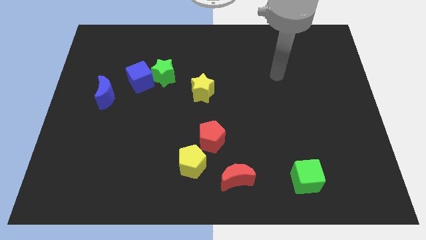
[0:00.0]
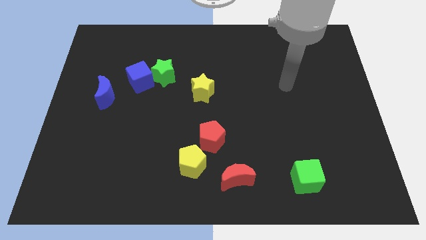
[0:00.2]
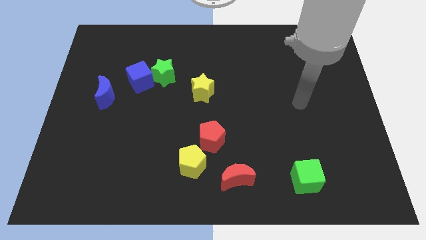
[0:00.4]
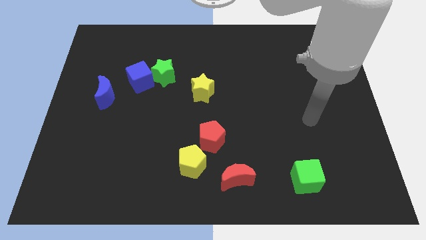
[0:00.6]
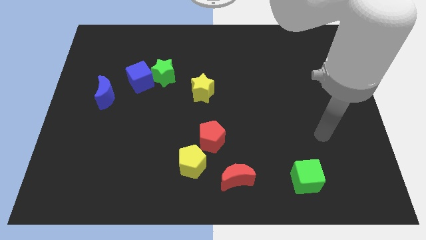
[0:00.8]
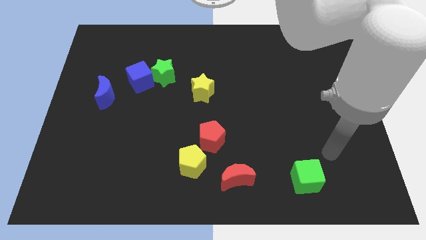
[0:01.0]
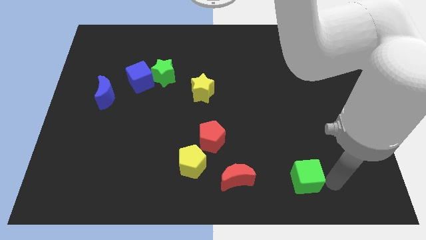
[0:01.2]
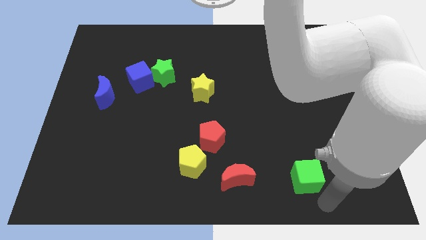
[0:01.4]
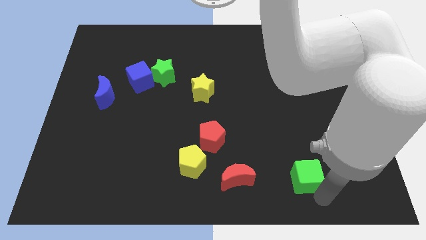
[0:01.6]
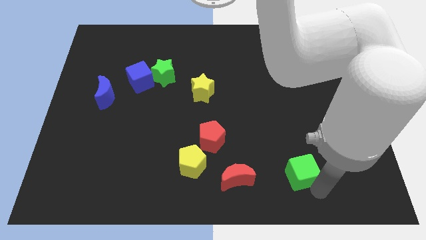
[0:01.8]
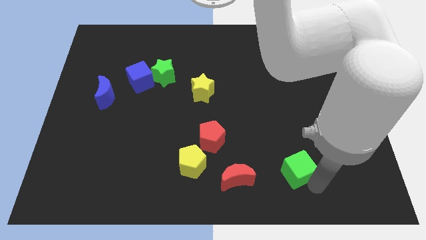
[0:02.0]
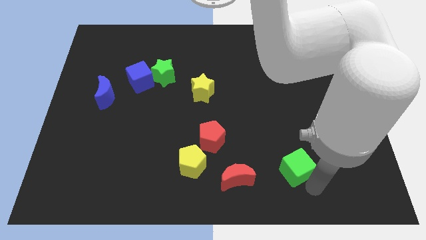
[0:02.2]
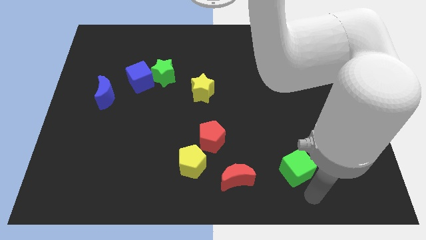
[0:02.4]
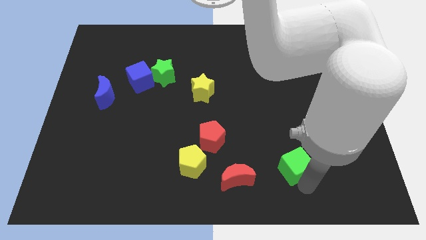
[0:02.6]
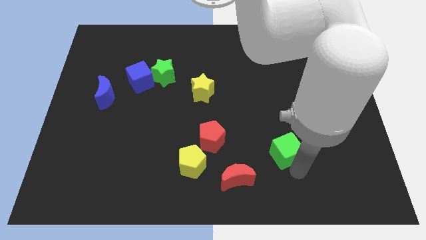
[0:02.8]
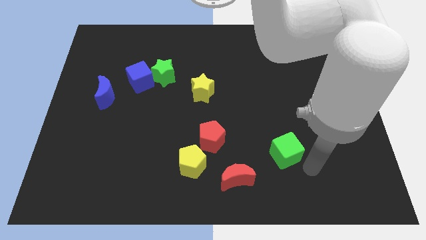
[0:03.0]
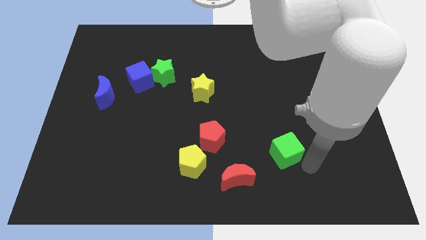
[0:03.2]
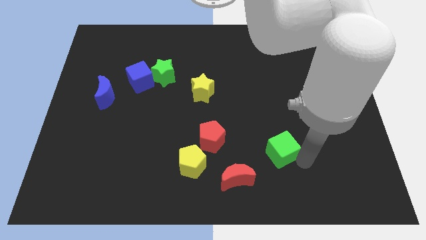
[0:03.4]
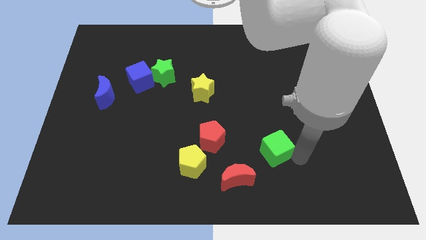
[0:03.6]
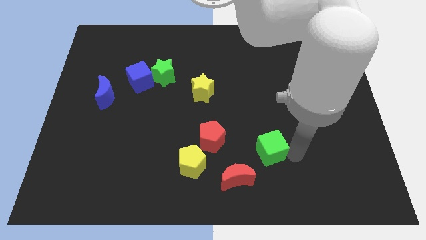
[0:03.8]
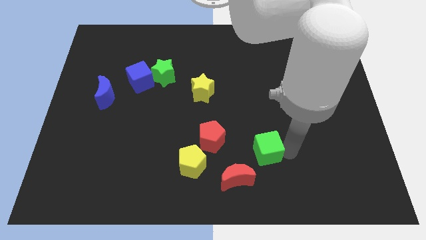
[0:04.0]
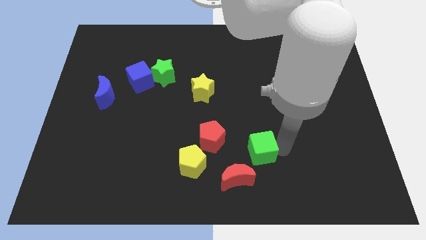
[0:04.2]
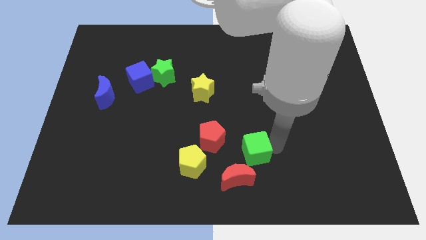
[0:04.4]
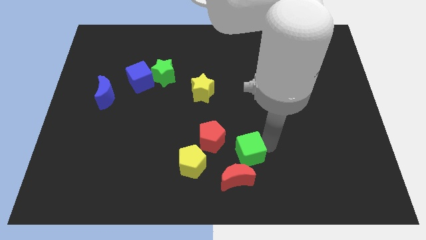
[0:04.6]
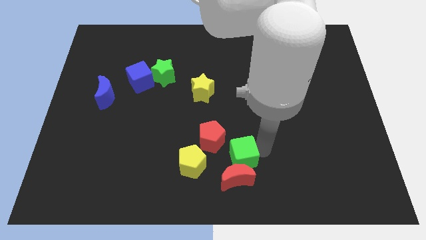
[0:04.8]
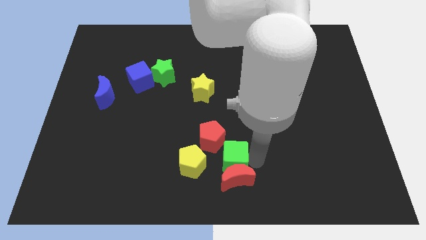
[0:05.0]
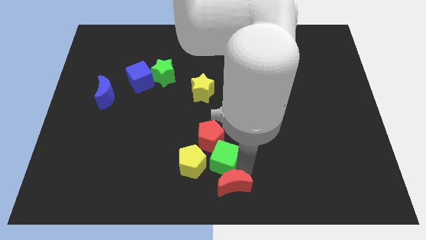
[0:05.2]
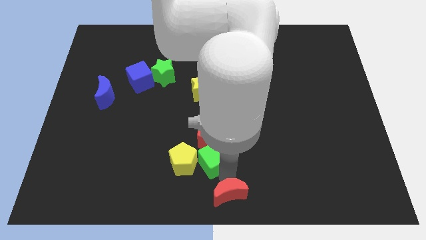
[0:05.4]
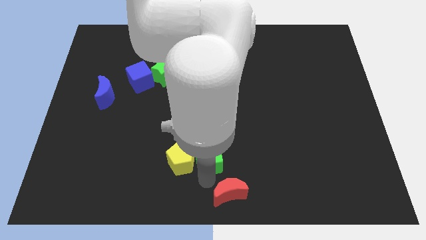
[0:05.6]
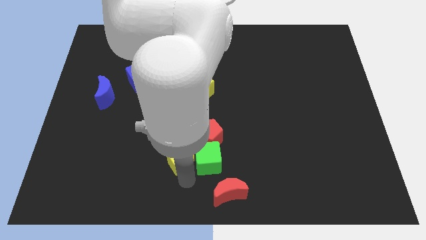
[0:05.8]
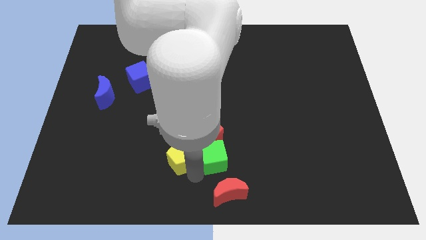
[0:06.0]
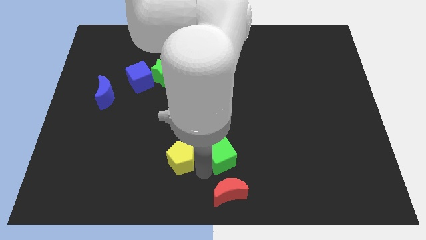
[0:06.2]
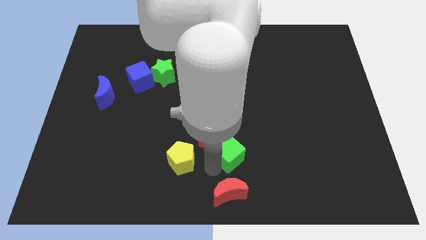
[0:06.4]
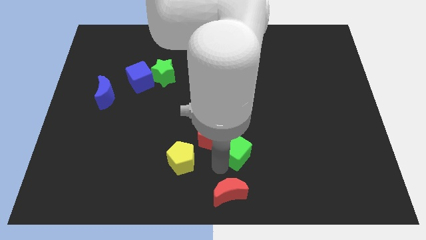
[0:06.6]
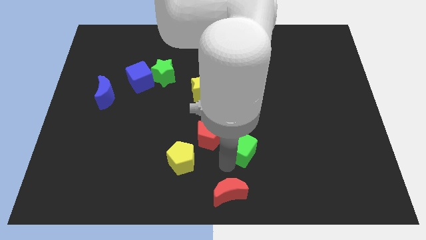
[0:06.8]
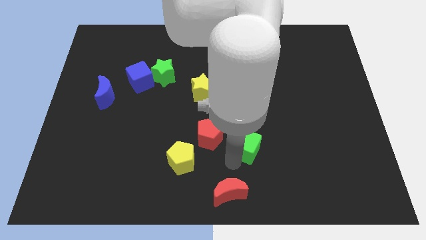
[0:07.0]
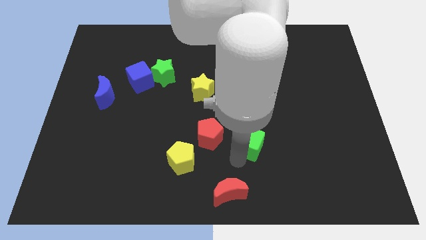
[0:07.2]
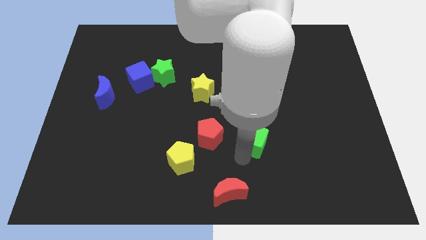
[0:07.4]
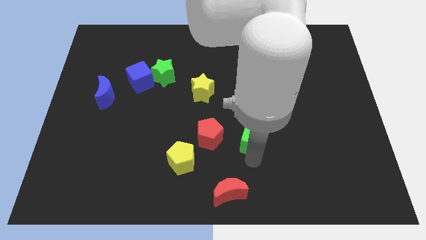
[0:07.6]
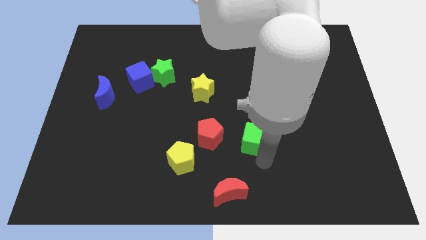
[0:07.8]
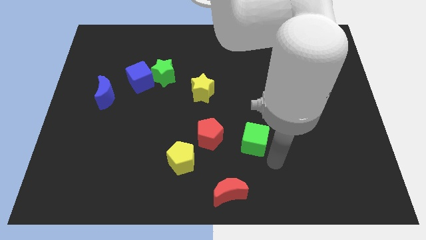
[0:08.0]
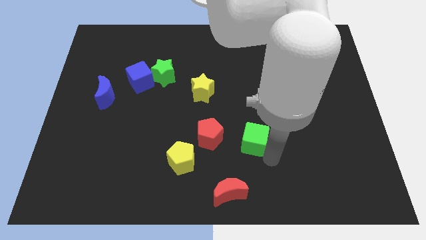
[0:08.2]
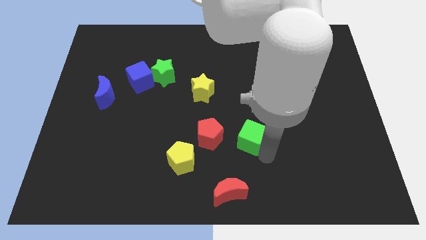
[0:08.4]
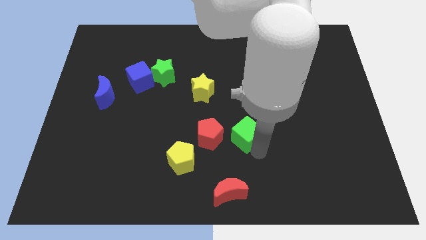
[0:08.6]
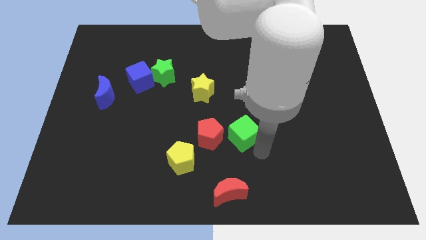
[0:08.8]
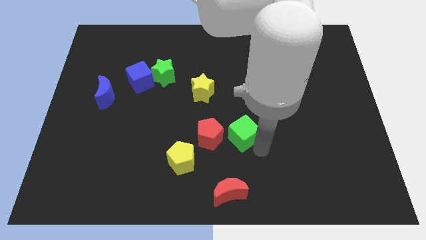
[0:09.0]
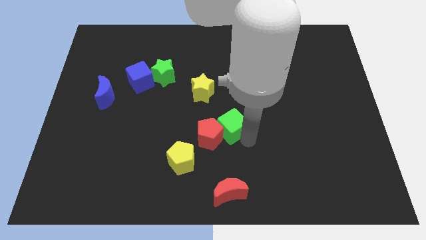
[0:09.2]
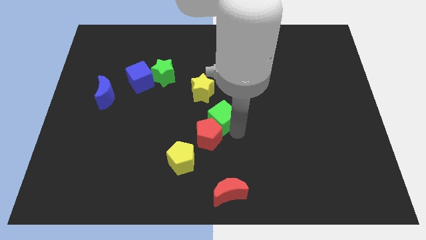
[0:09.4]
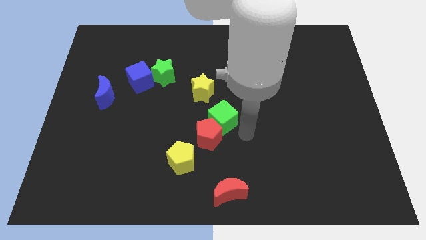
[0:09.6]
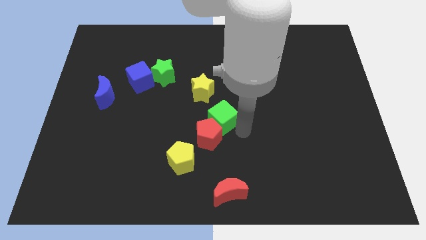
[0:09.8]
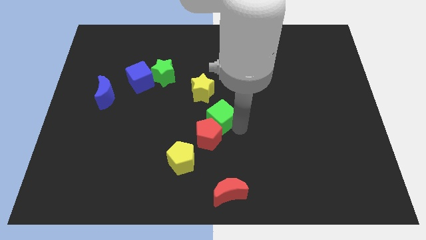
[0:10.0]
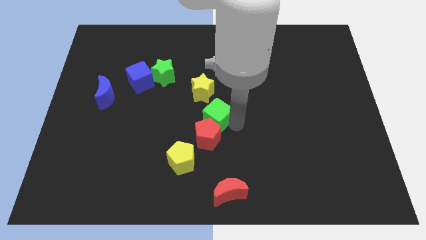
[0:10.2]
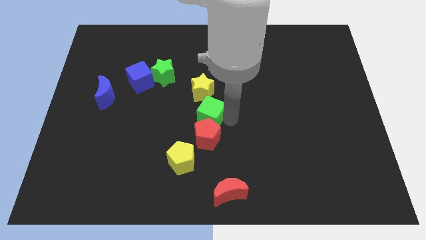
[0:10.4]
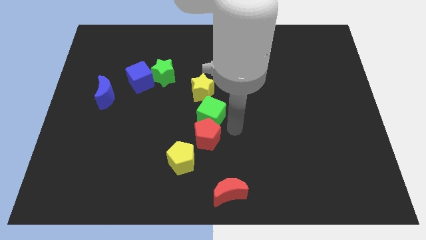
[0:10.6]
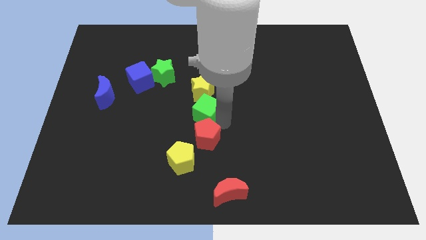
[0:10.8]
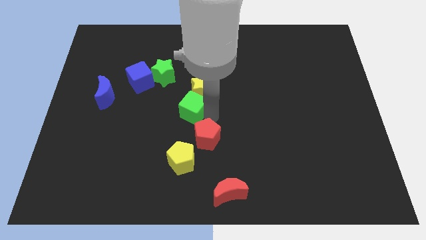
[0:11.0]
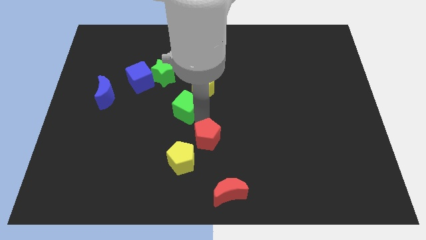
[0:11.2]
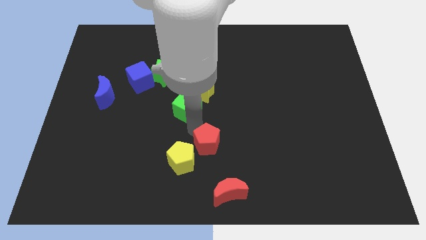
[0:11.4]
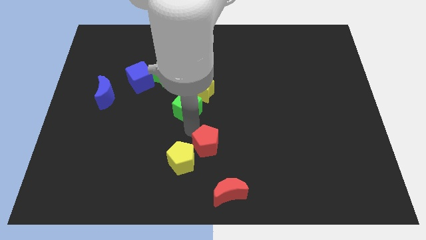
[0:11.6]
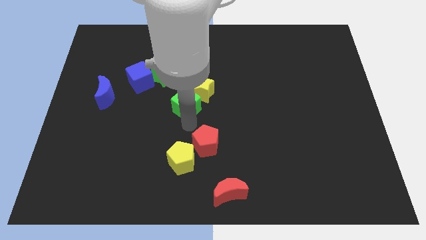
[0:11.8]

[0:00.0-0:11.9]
push the green cube diagonally down and to the right of the green star

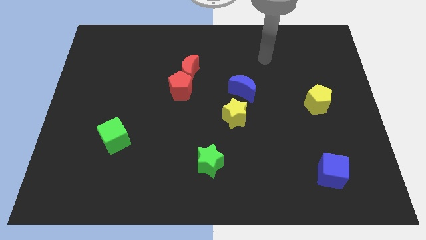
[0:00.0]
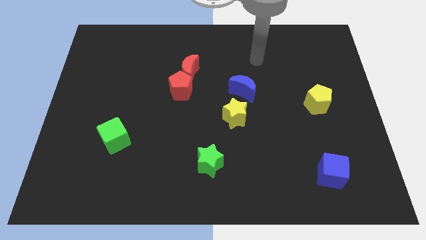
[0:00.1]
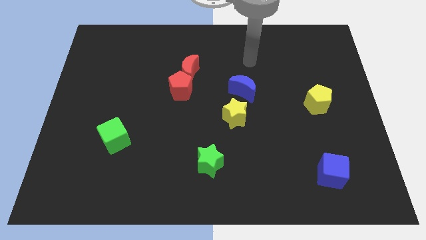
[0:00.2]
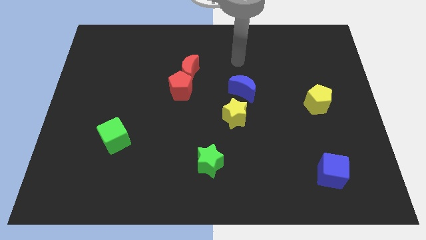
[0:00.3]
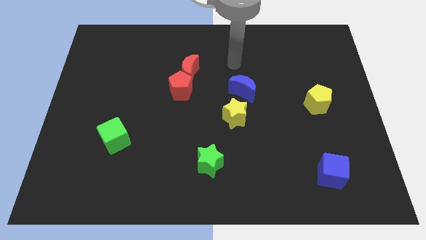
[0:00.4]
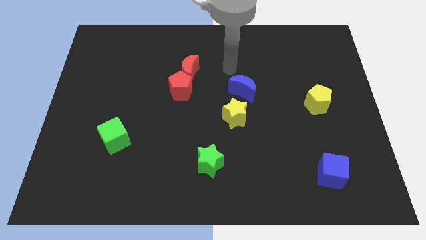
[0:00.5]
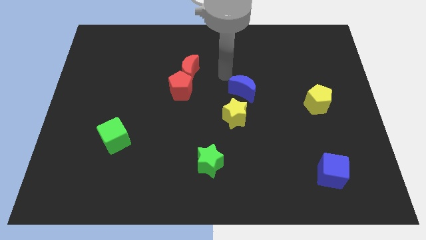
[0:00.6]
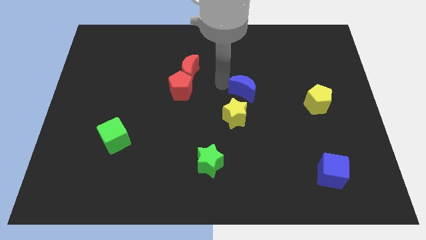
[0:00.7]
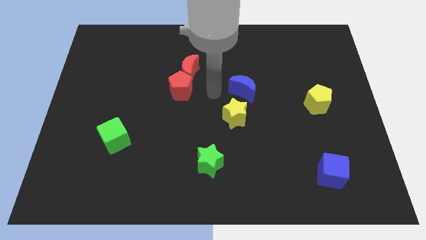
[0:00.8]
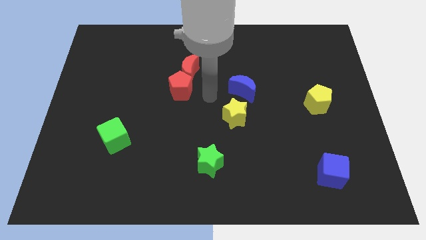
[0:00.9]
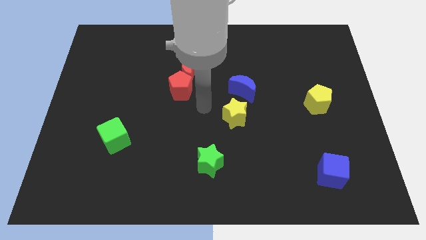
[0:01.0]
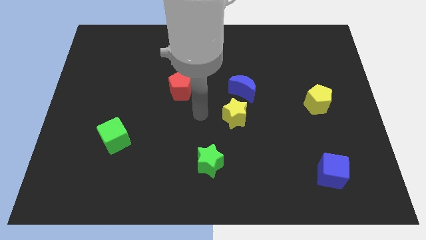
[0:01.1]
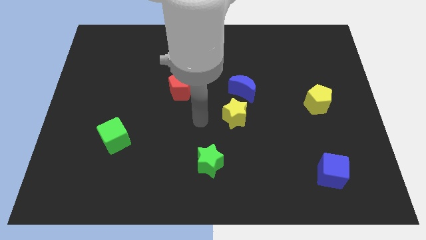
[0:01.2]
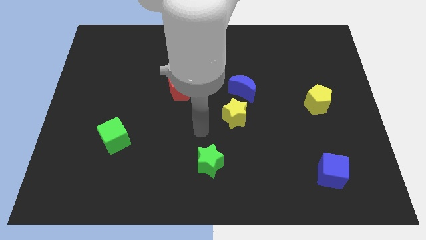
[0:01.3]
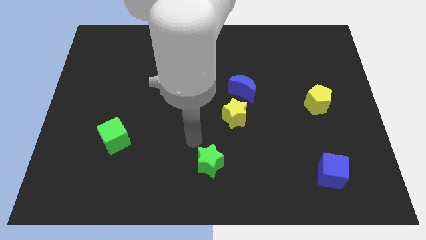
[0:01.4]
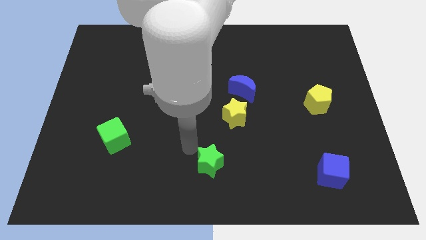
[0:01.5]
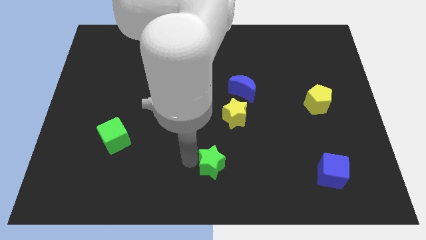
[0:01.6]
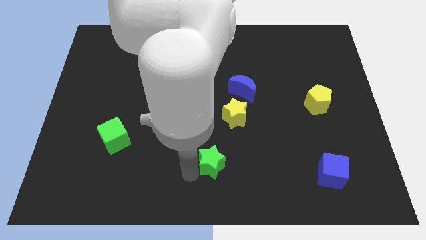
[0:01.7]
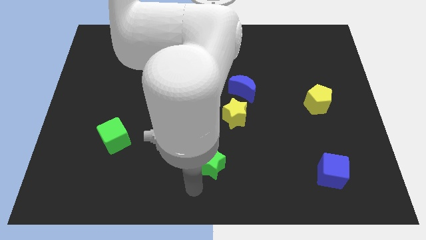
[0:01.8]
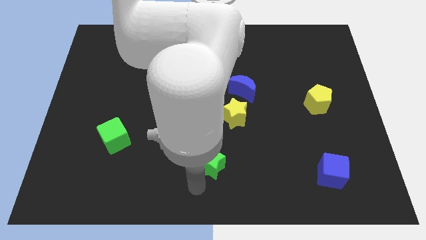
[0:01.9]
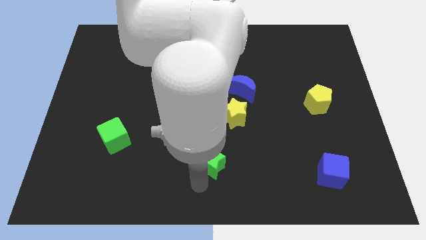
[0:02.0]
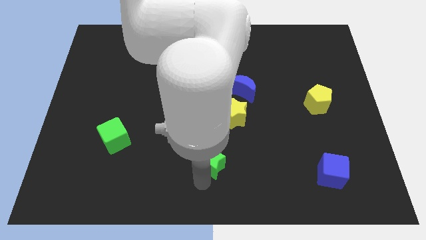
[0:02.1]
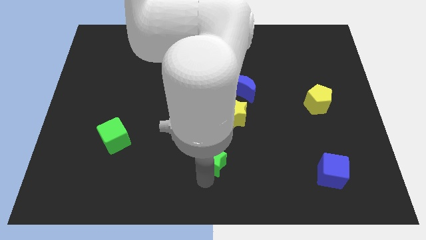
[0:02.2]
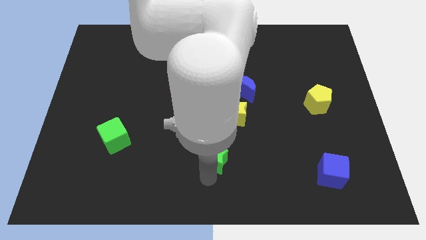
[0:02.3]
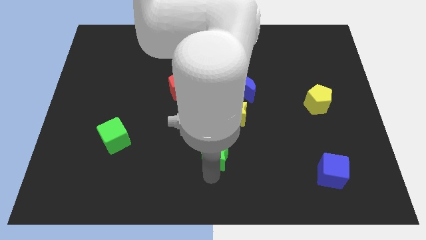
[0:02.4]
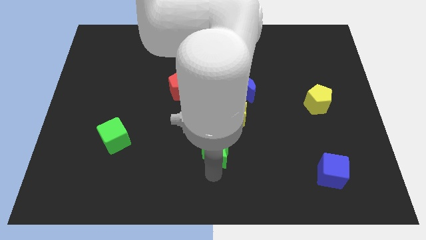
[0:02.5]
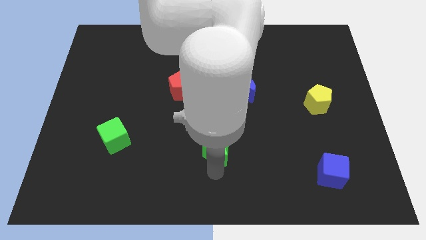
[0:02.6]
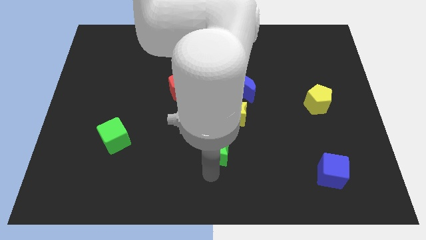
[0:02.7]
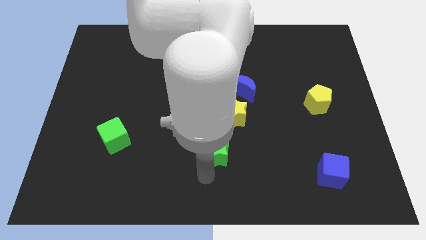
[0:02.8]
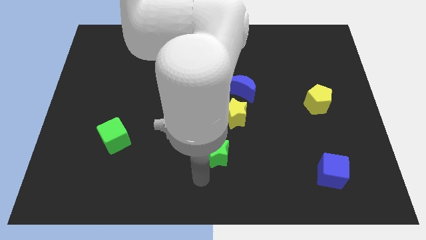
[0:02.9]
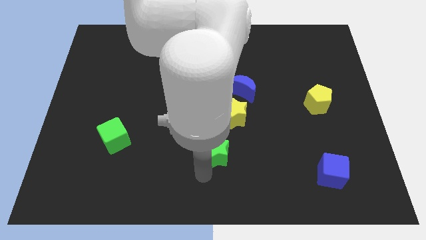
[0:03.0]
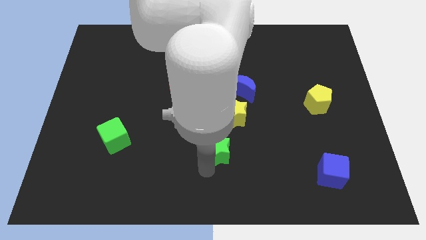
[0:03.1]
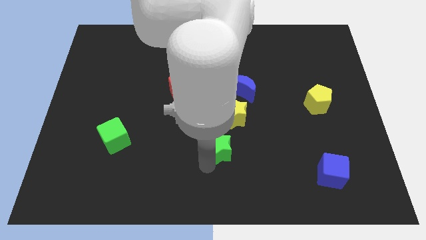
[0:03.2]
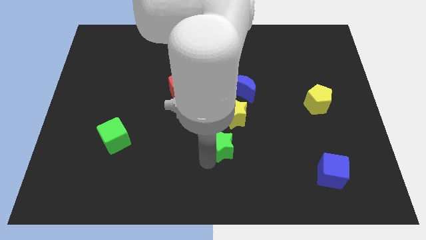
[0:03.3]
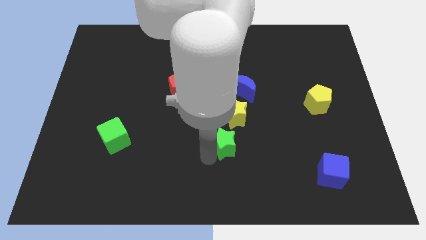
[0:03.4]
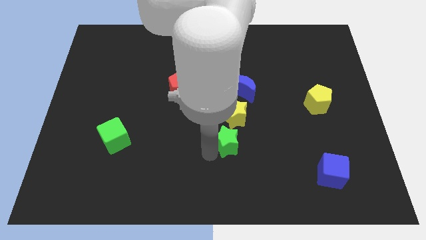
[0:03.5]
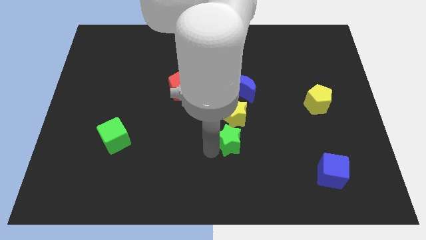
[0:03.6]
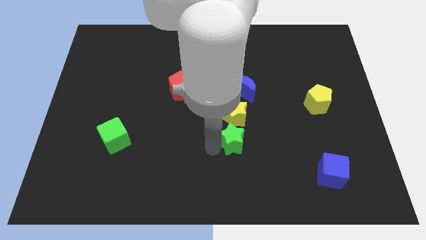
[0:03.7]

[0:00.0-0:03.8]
slide the green star to the bottom side of the blue moon
